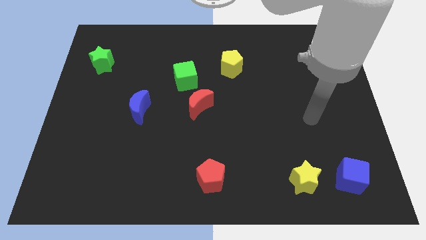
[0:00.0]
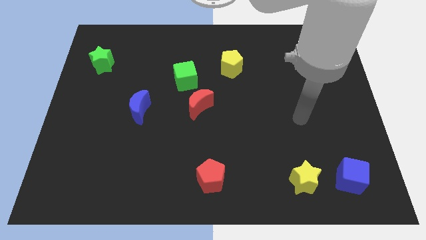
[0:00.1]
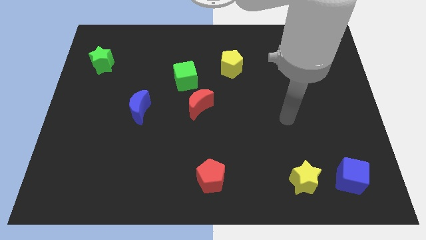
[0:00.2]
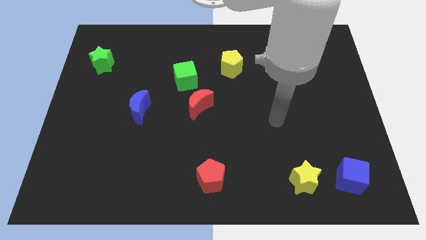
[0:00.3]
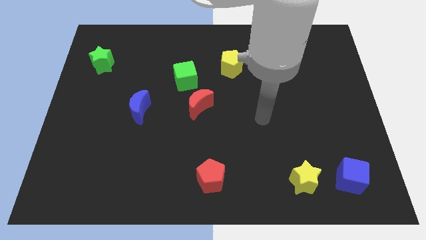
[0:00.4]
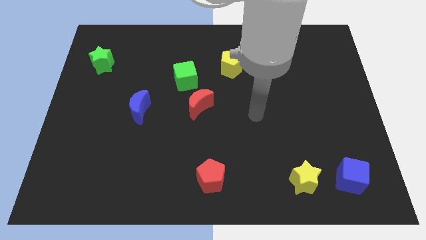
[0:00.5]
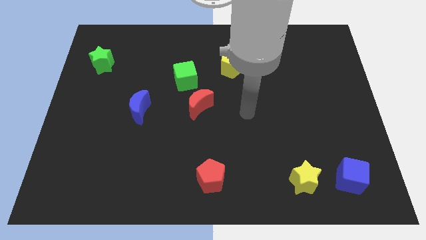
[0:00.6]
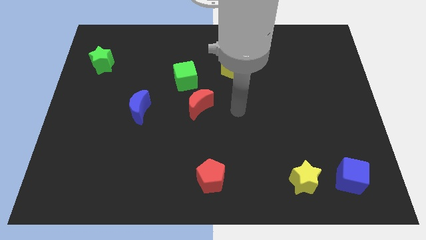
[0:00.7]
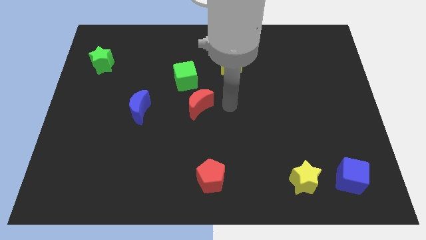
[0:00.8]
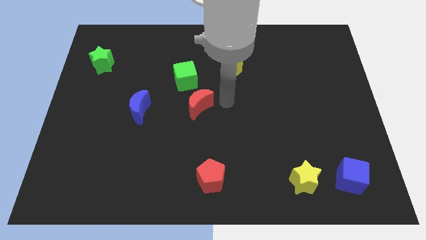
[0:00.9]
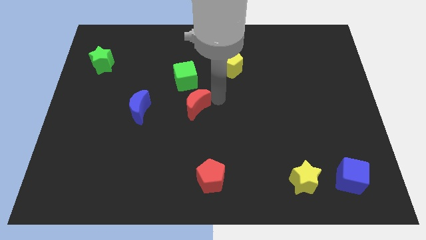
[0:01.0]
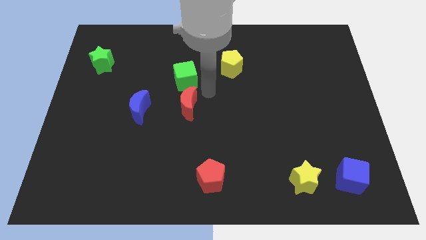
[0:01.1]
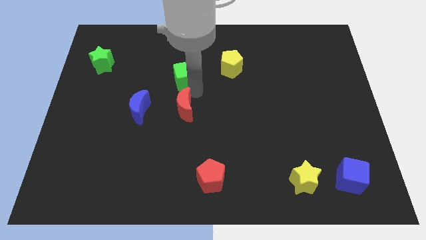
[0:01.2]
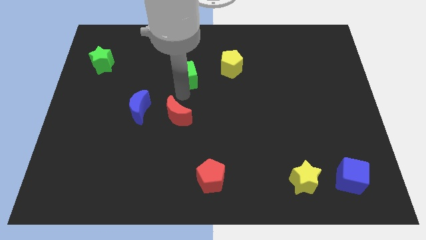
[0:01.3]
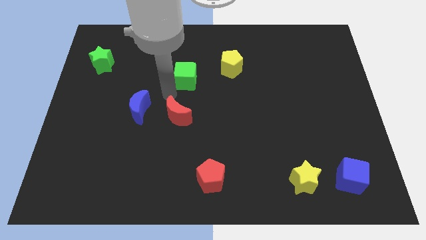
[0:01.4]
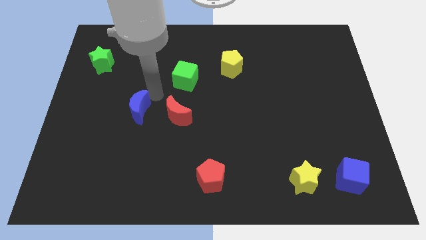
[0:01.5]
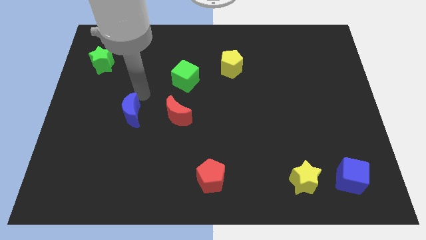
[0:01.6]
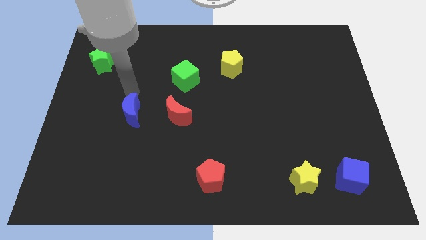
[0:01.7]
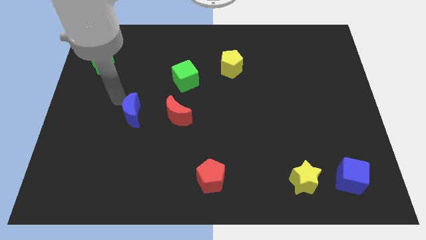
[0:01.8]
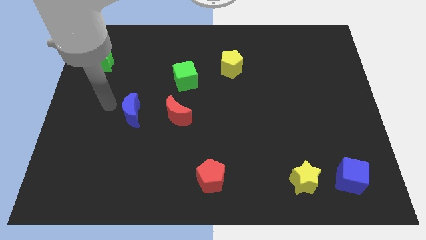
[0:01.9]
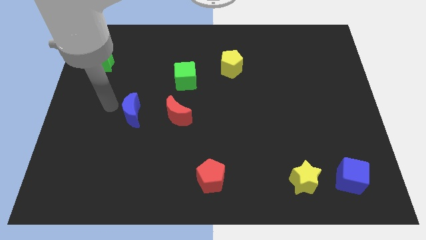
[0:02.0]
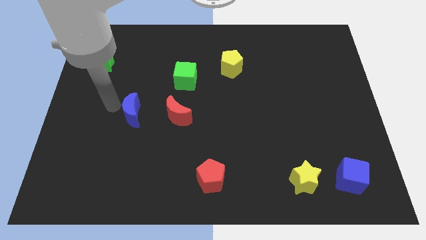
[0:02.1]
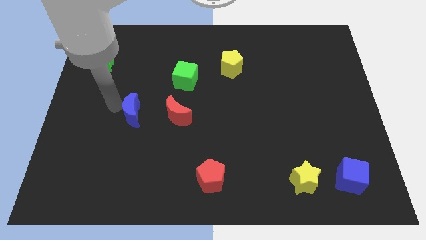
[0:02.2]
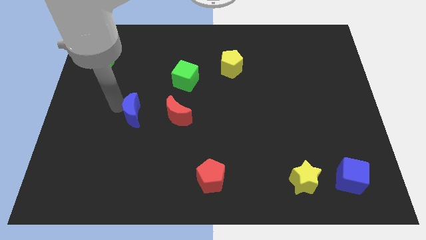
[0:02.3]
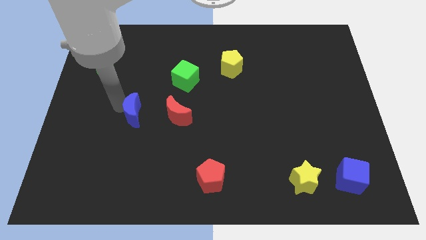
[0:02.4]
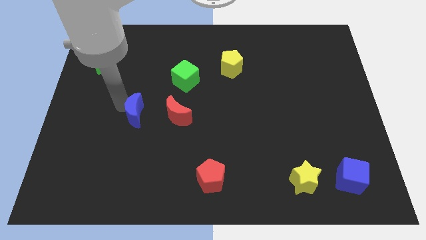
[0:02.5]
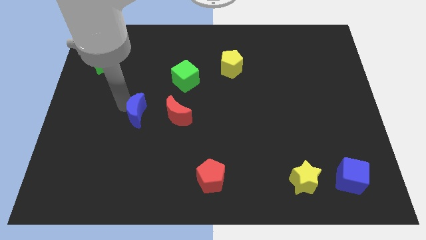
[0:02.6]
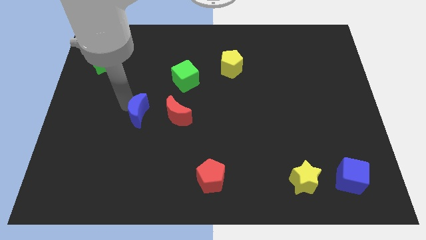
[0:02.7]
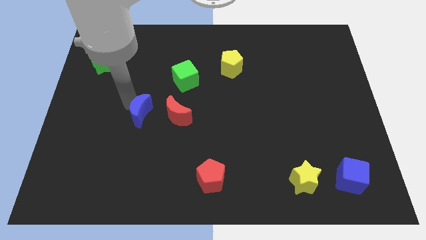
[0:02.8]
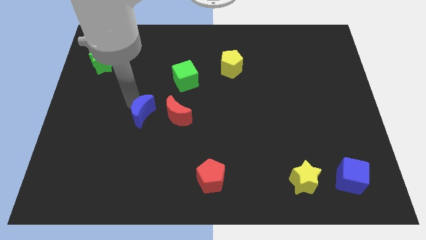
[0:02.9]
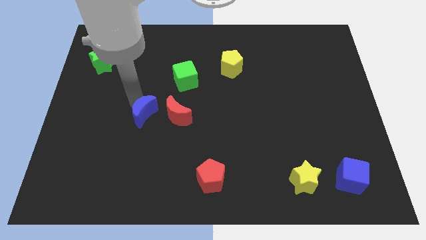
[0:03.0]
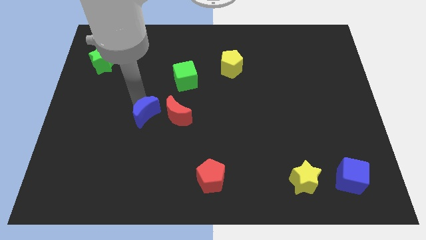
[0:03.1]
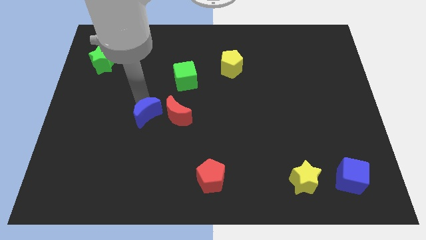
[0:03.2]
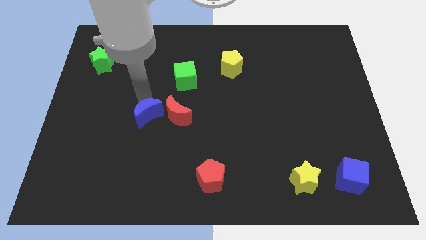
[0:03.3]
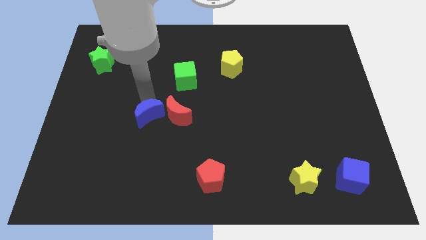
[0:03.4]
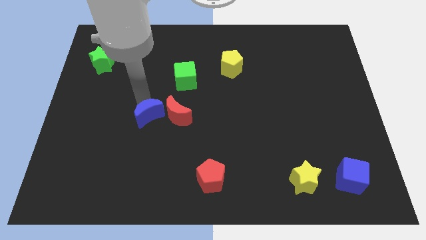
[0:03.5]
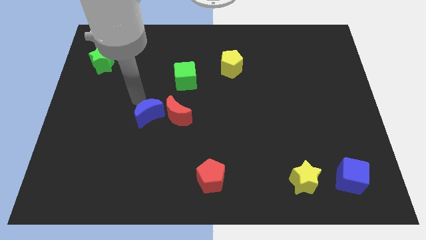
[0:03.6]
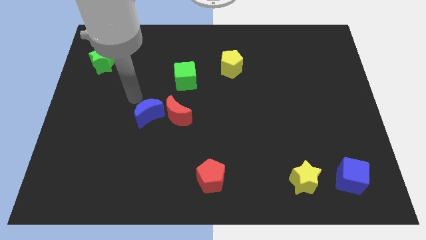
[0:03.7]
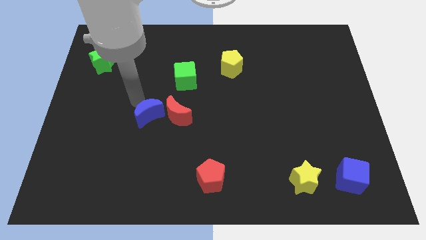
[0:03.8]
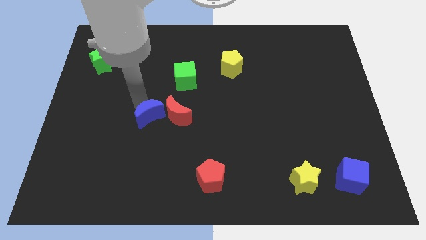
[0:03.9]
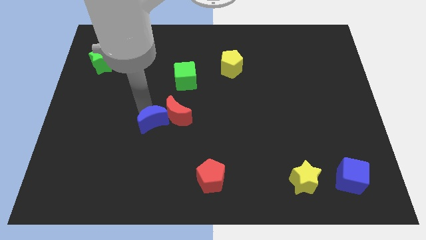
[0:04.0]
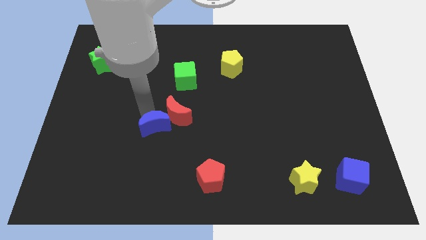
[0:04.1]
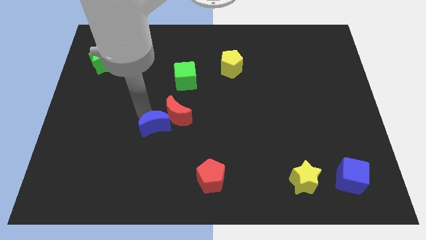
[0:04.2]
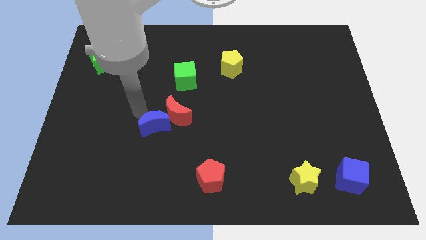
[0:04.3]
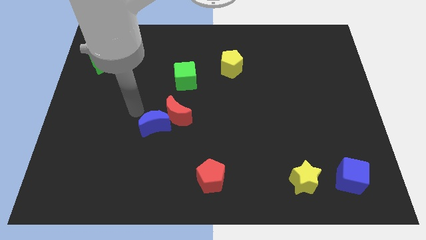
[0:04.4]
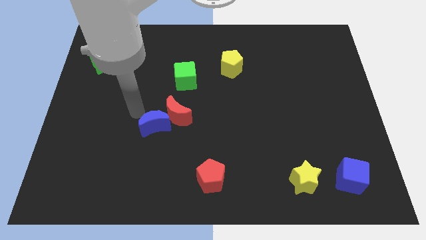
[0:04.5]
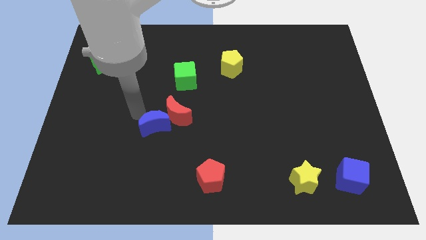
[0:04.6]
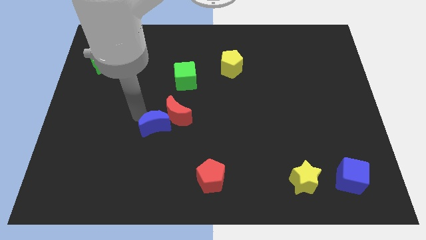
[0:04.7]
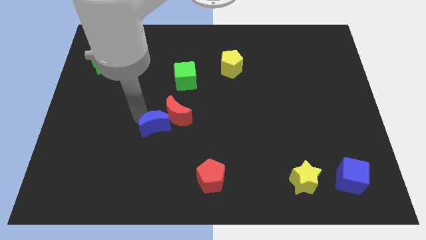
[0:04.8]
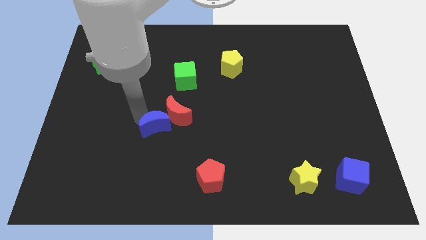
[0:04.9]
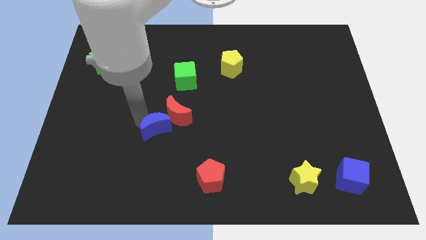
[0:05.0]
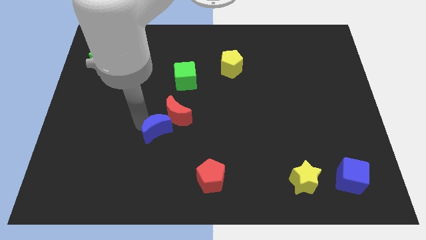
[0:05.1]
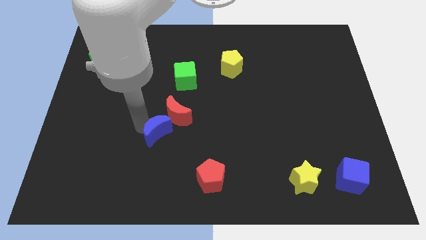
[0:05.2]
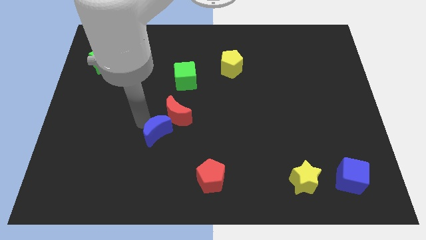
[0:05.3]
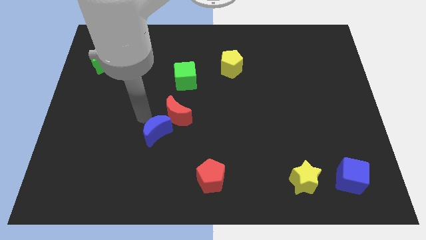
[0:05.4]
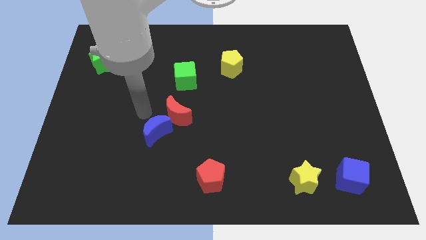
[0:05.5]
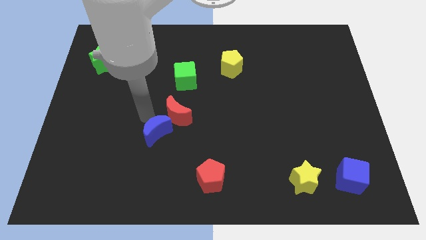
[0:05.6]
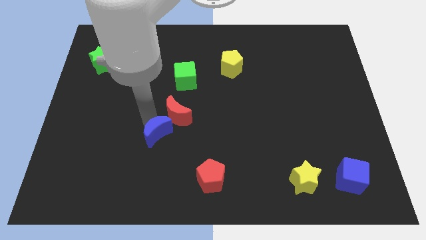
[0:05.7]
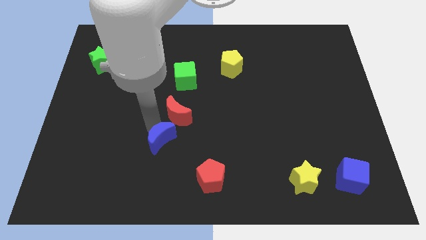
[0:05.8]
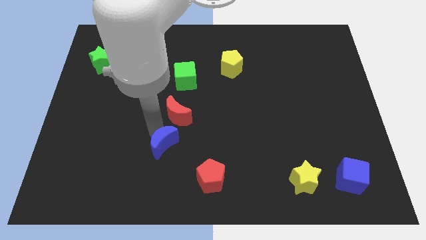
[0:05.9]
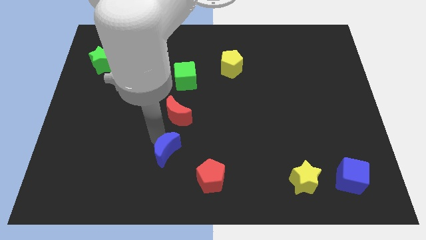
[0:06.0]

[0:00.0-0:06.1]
put the blue moon to the top left of the red pentagon
